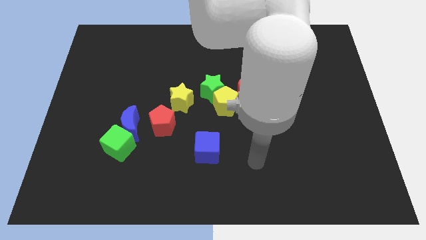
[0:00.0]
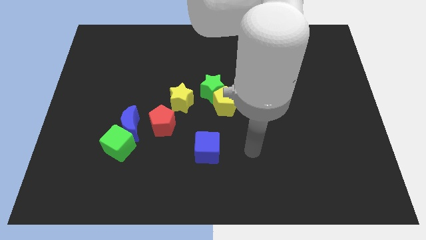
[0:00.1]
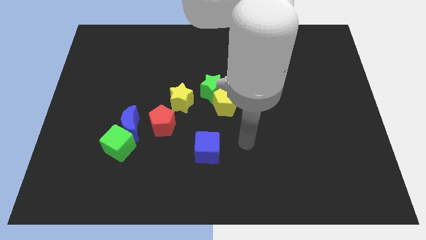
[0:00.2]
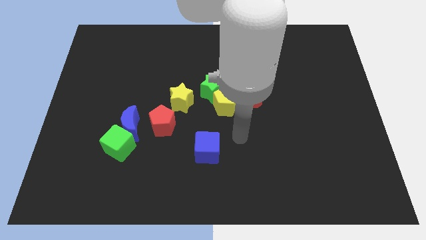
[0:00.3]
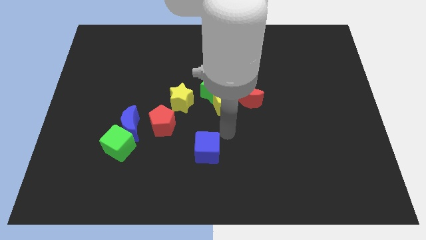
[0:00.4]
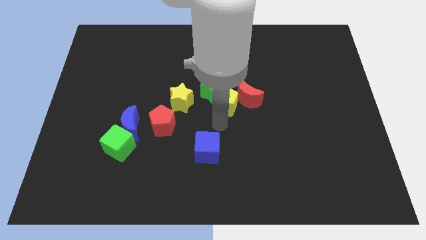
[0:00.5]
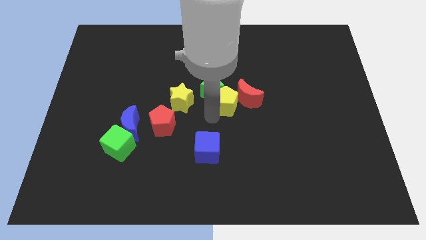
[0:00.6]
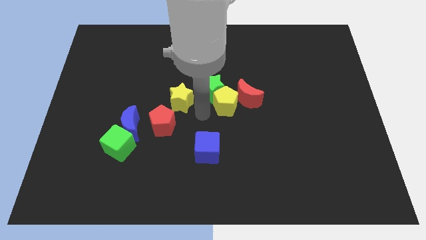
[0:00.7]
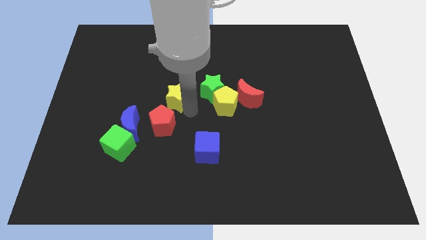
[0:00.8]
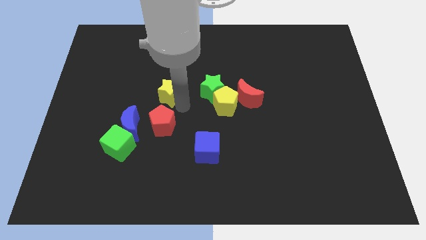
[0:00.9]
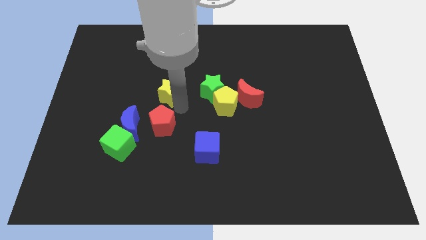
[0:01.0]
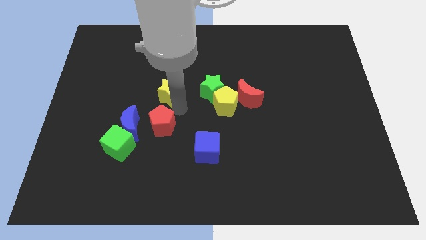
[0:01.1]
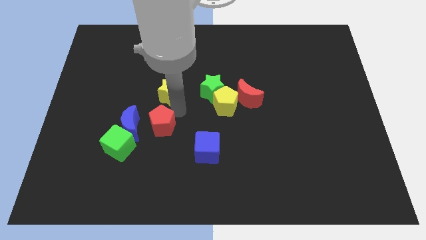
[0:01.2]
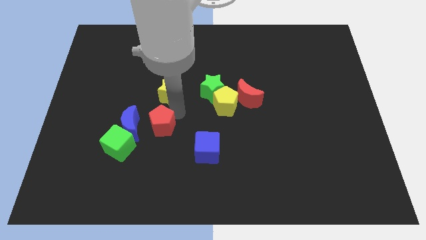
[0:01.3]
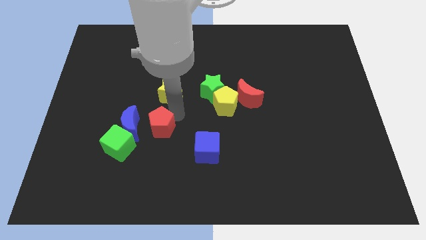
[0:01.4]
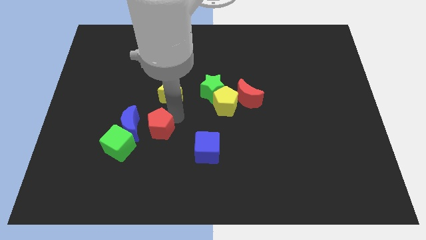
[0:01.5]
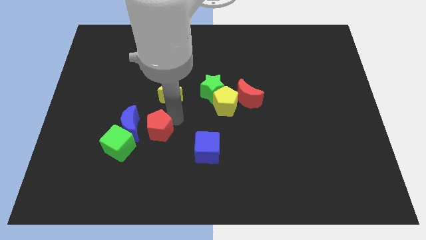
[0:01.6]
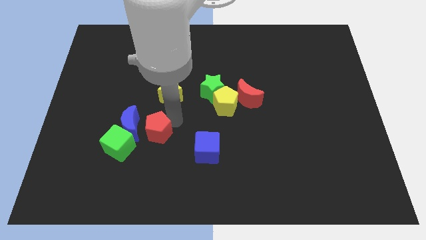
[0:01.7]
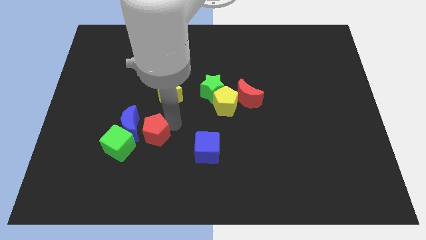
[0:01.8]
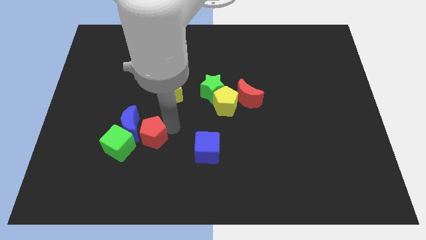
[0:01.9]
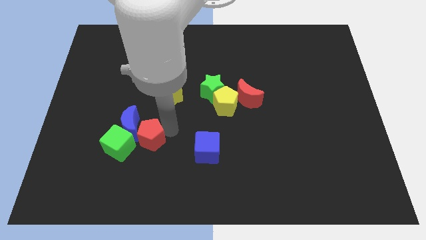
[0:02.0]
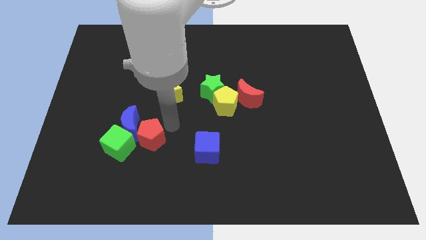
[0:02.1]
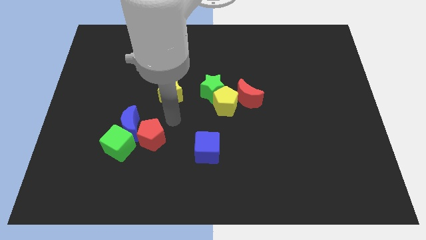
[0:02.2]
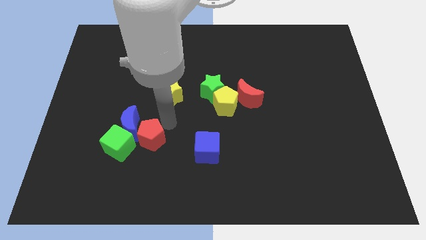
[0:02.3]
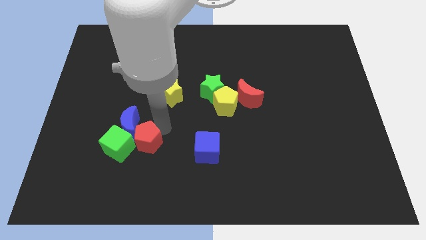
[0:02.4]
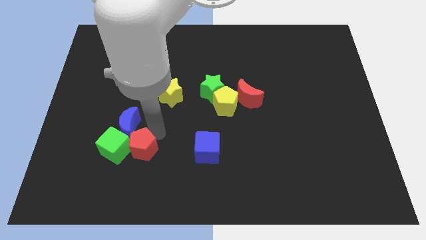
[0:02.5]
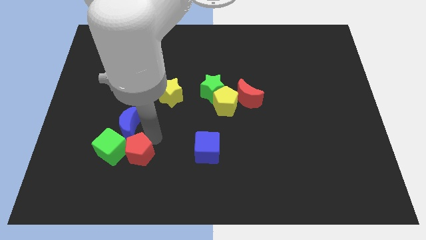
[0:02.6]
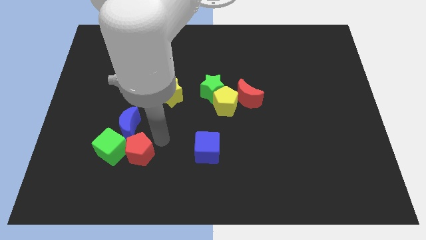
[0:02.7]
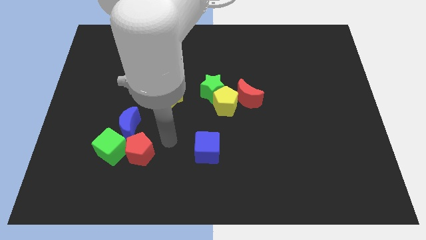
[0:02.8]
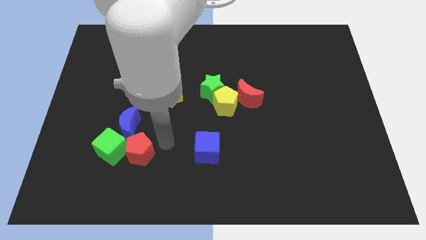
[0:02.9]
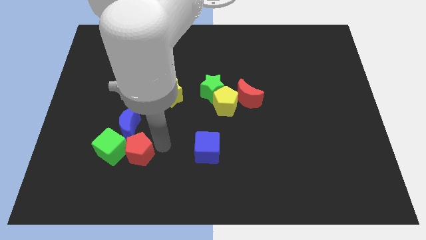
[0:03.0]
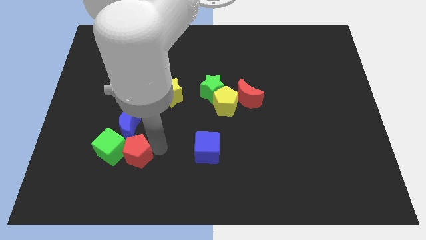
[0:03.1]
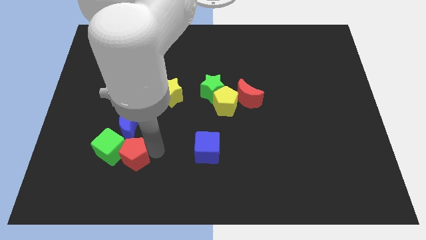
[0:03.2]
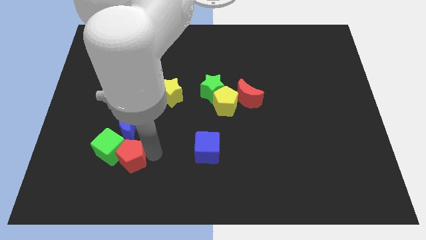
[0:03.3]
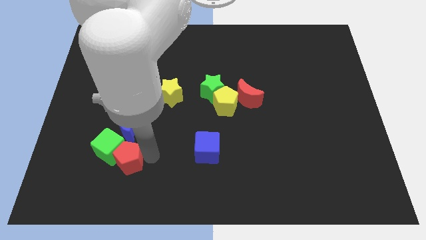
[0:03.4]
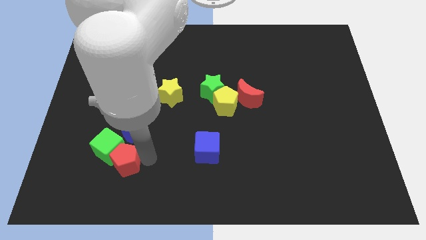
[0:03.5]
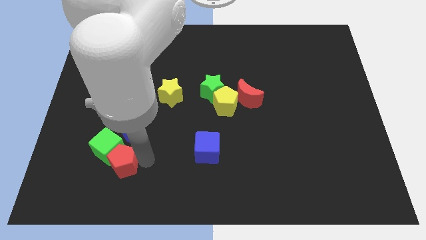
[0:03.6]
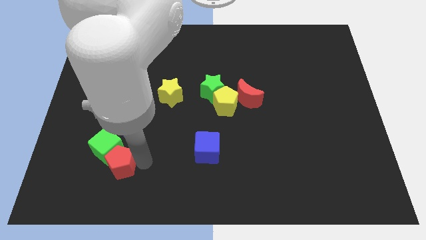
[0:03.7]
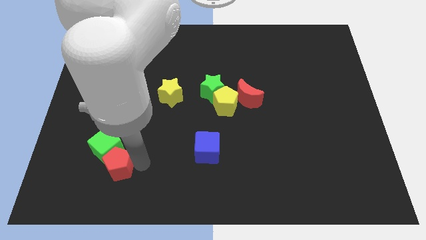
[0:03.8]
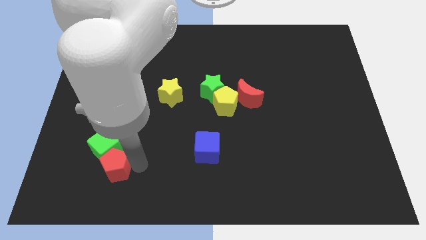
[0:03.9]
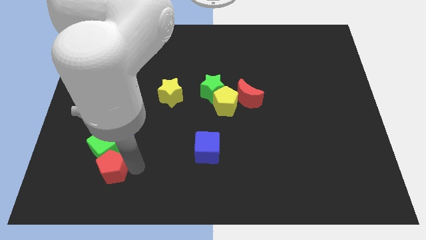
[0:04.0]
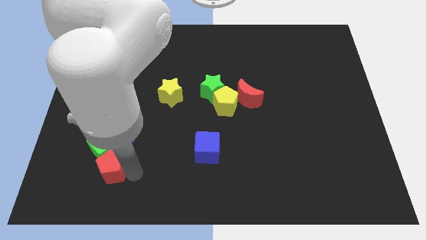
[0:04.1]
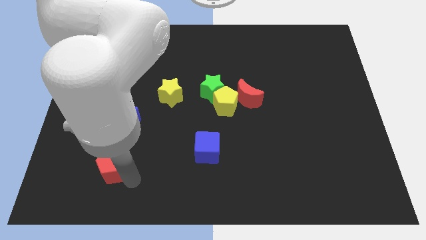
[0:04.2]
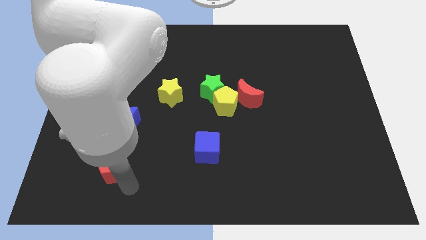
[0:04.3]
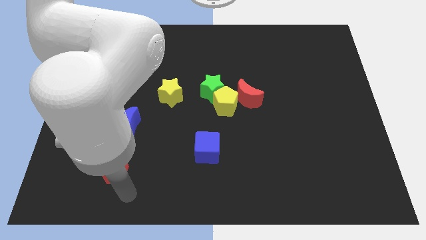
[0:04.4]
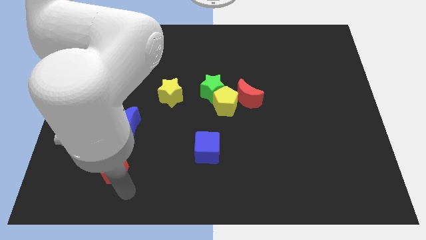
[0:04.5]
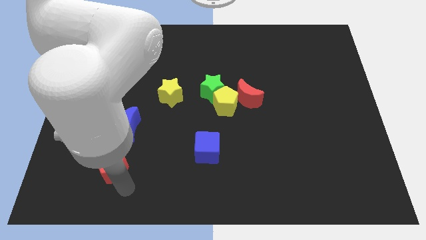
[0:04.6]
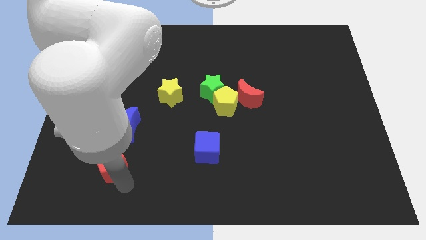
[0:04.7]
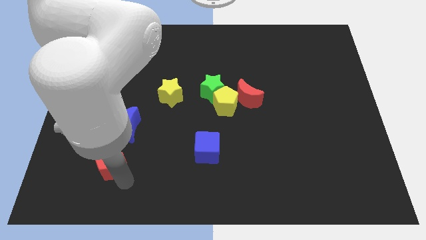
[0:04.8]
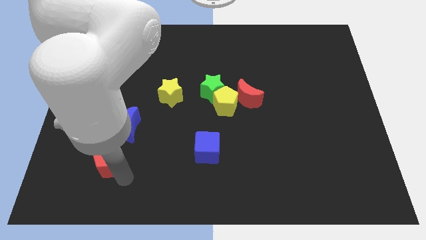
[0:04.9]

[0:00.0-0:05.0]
push the red pentagon diagonally down and to the left of the blue moon

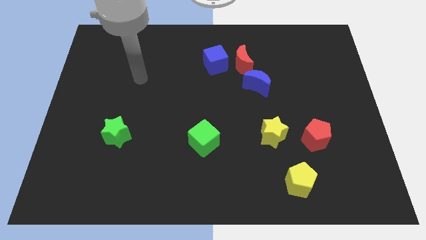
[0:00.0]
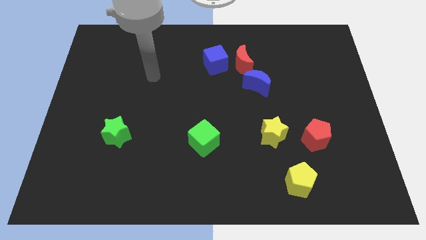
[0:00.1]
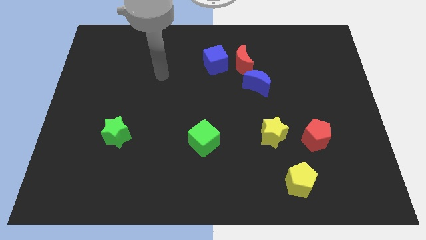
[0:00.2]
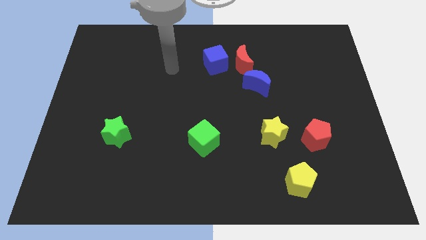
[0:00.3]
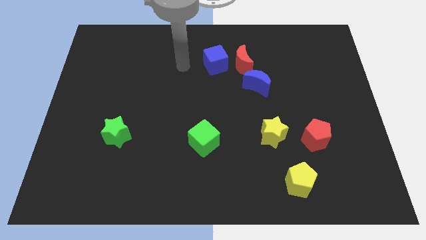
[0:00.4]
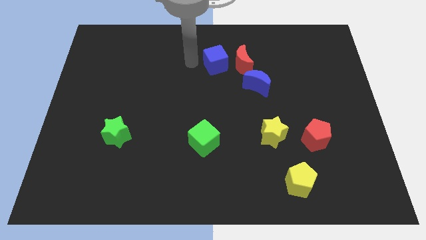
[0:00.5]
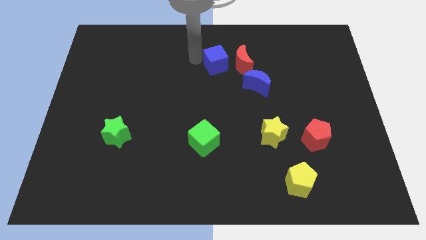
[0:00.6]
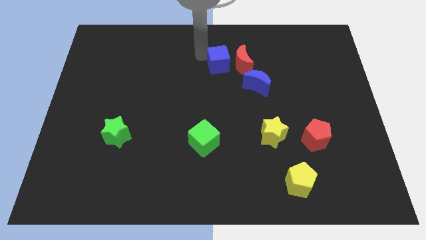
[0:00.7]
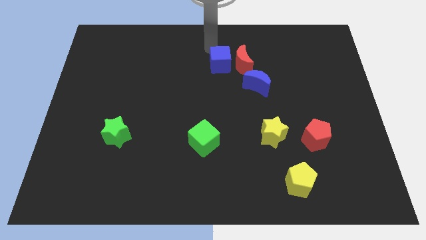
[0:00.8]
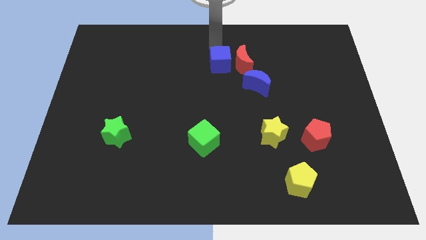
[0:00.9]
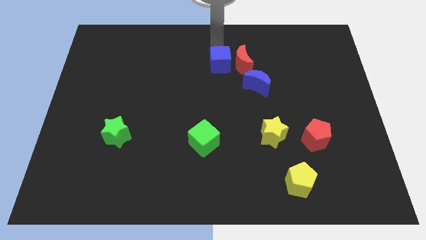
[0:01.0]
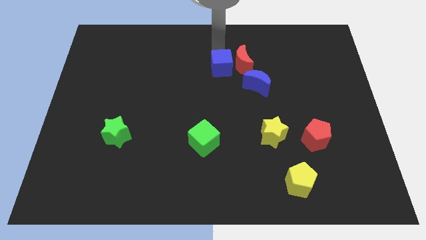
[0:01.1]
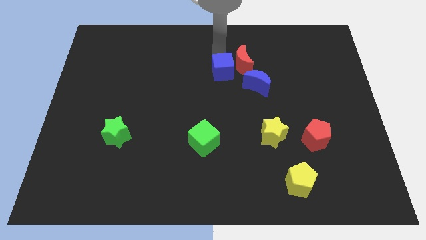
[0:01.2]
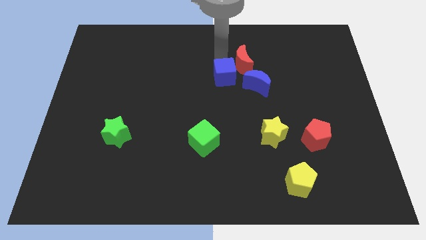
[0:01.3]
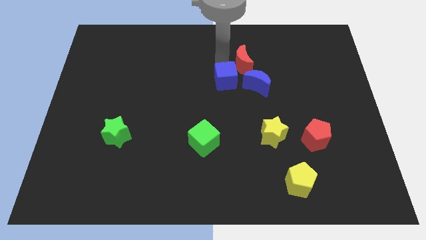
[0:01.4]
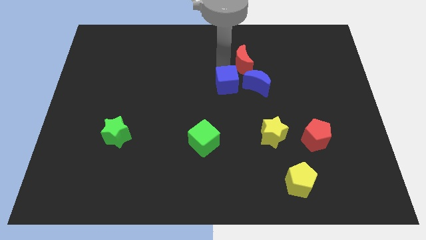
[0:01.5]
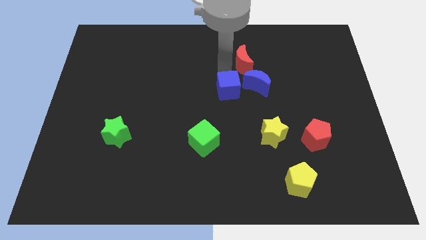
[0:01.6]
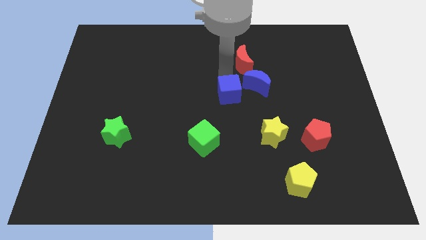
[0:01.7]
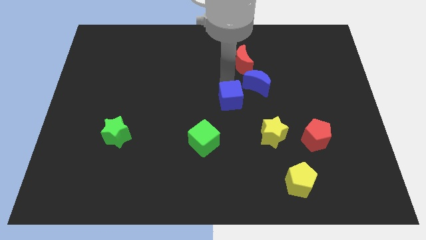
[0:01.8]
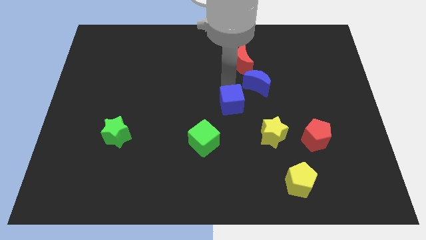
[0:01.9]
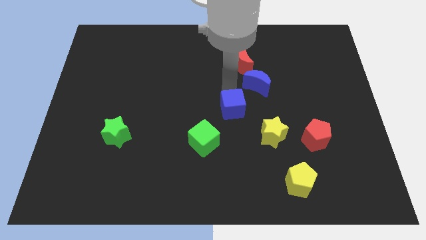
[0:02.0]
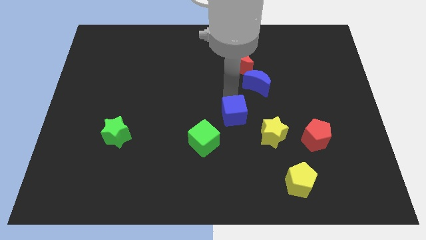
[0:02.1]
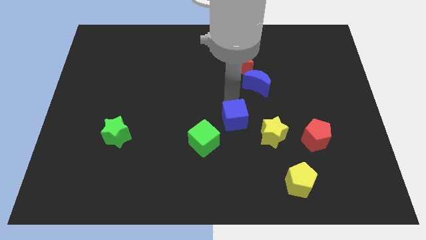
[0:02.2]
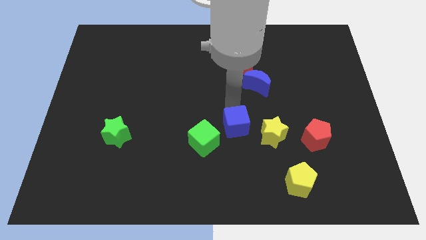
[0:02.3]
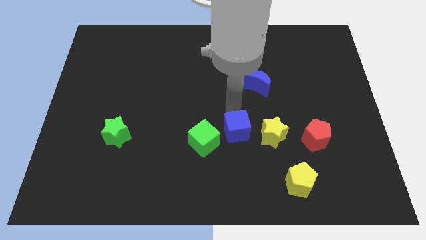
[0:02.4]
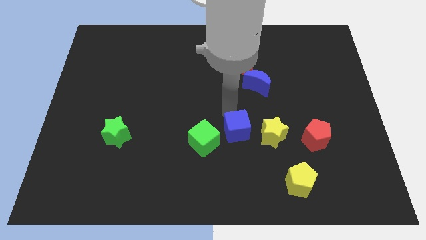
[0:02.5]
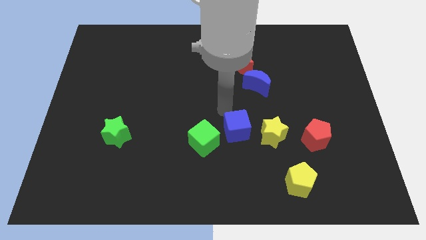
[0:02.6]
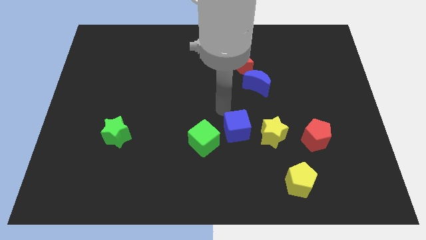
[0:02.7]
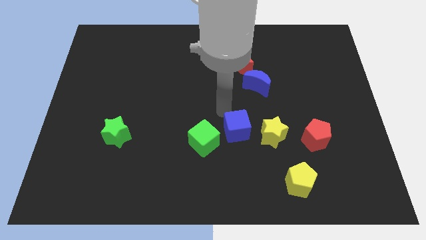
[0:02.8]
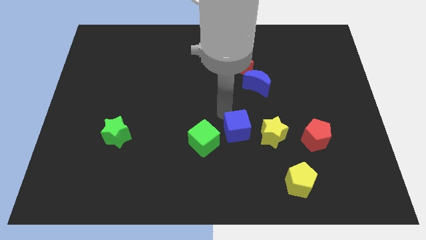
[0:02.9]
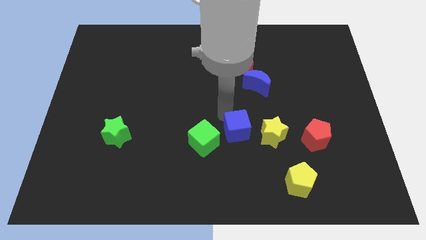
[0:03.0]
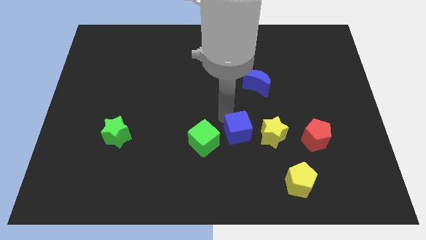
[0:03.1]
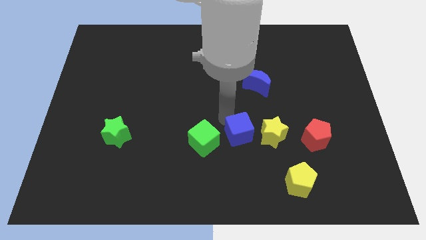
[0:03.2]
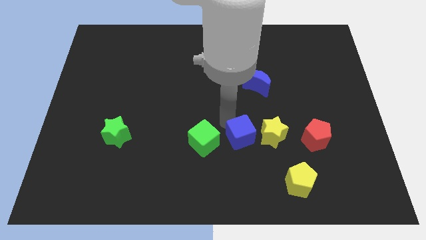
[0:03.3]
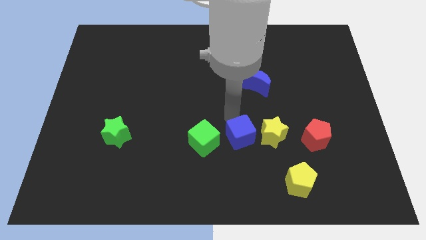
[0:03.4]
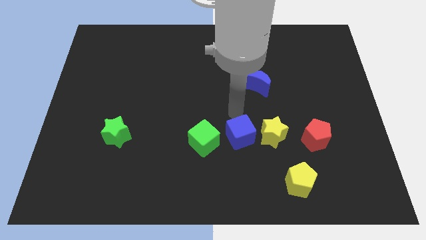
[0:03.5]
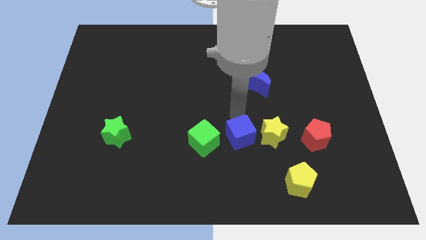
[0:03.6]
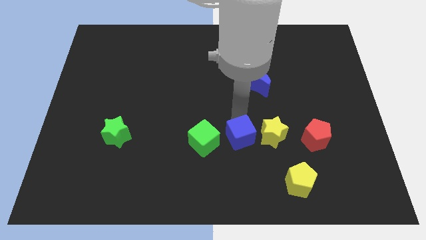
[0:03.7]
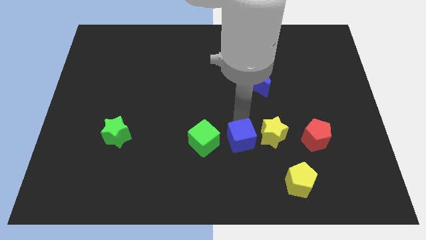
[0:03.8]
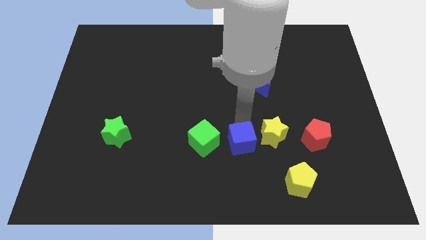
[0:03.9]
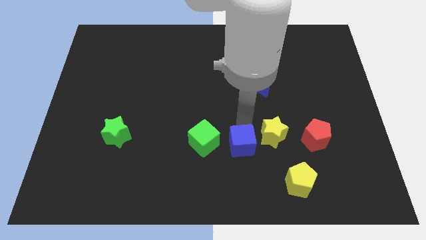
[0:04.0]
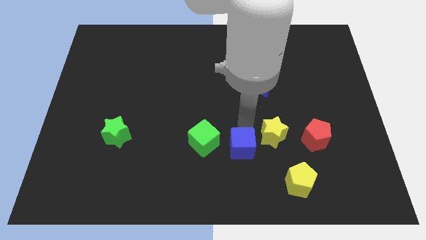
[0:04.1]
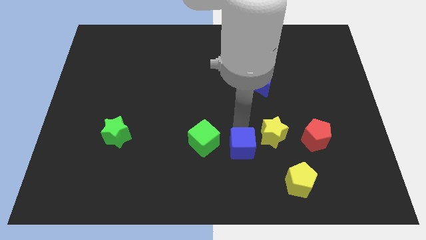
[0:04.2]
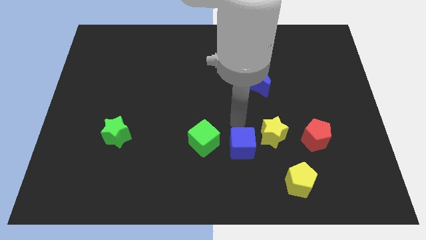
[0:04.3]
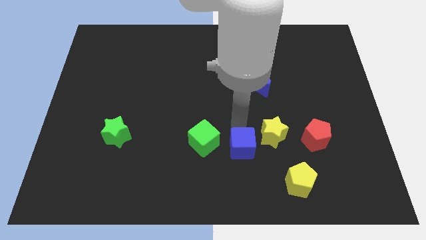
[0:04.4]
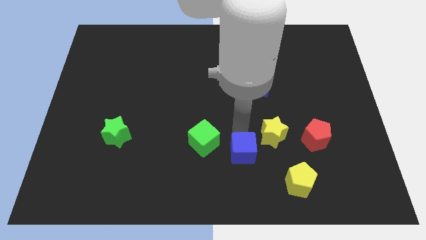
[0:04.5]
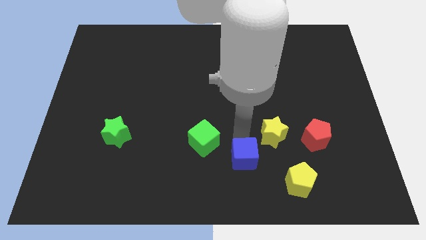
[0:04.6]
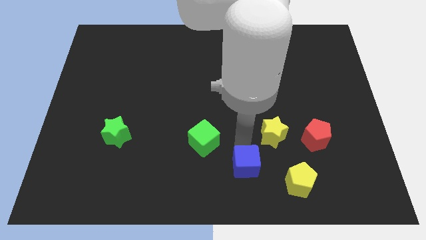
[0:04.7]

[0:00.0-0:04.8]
slide the blue cube to the left of the yellow pentagon
